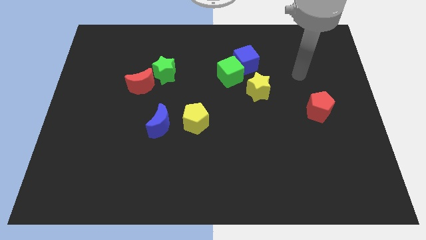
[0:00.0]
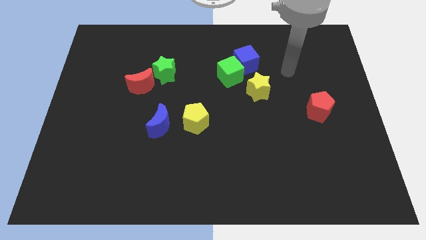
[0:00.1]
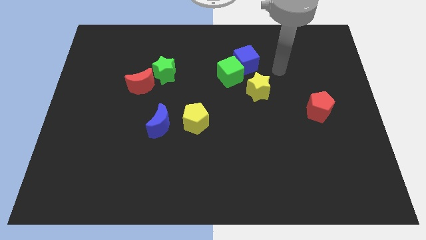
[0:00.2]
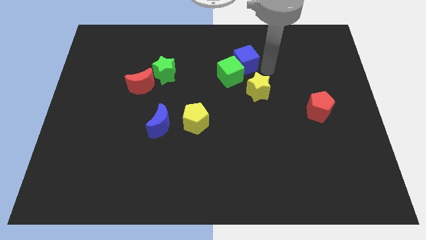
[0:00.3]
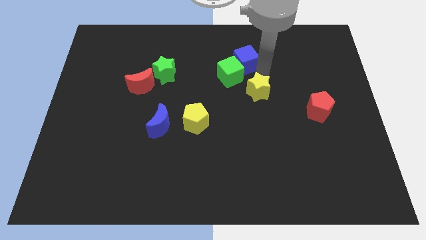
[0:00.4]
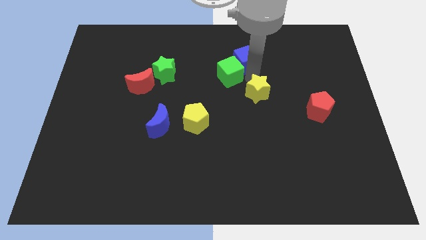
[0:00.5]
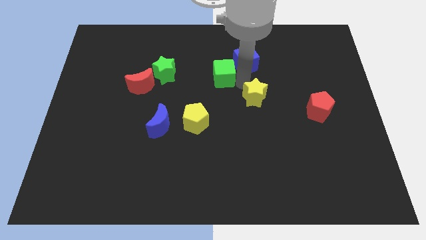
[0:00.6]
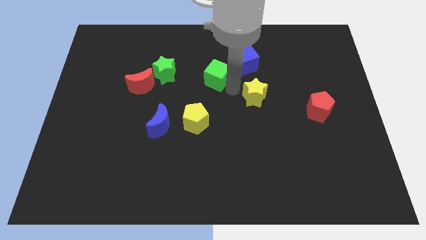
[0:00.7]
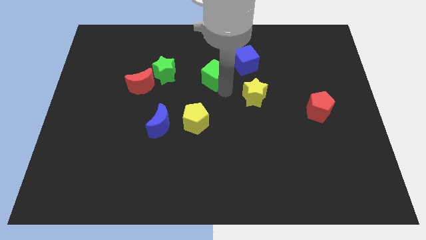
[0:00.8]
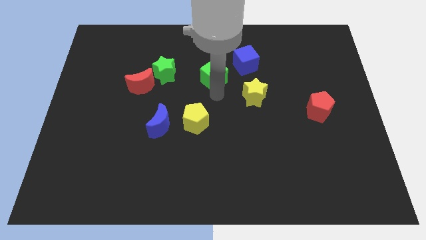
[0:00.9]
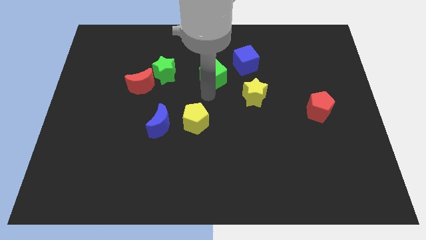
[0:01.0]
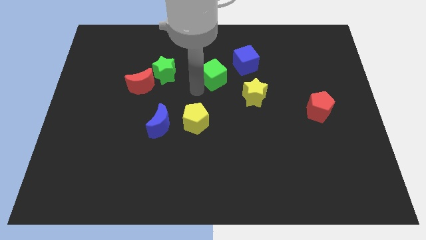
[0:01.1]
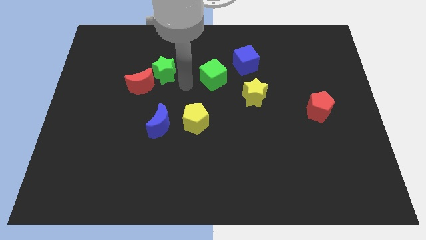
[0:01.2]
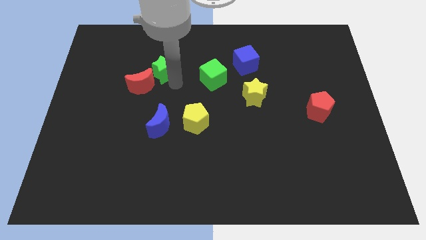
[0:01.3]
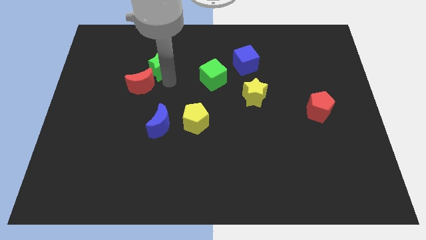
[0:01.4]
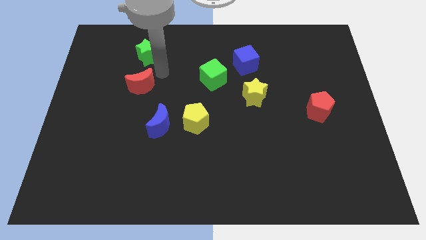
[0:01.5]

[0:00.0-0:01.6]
pull the red moon apart from the green star

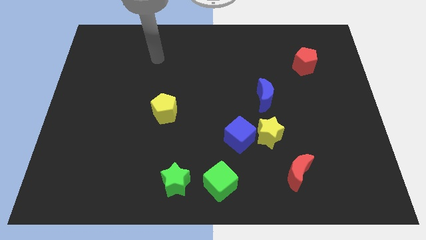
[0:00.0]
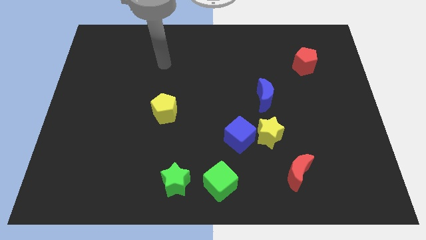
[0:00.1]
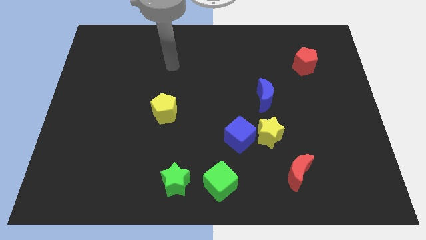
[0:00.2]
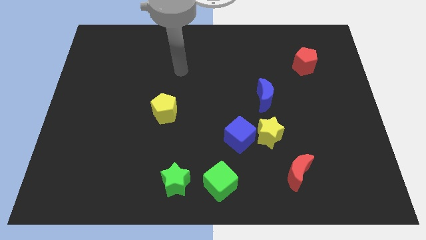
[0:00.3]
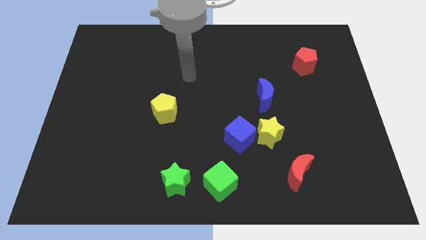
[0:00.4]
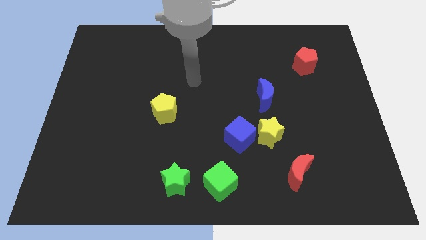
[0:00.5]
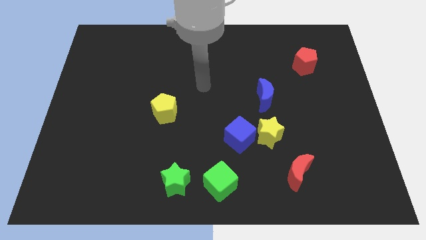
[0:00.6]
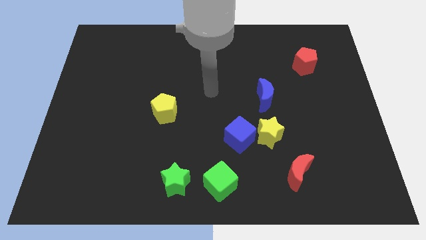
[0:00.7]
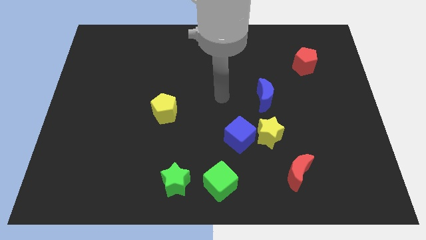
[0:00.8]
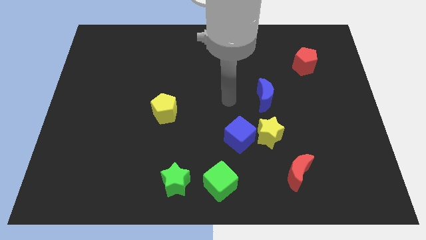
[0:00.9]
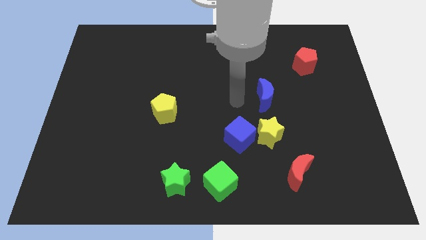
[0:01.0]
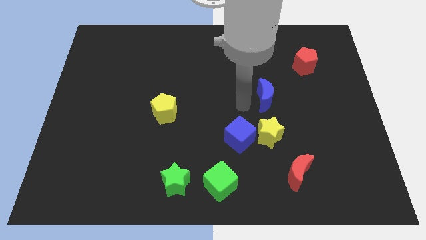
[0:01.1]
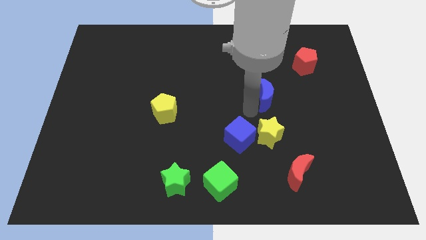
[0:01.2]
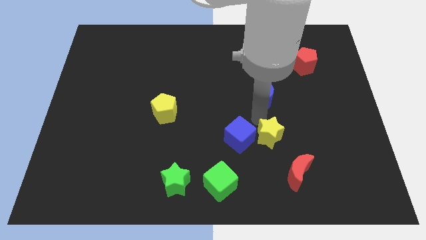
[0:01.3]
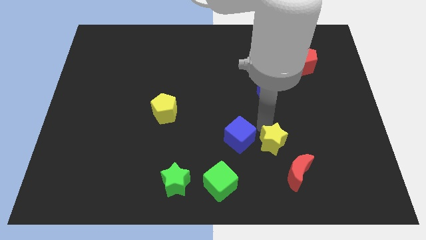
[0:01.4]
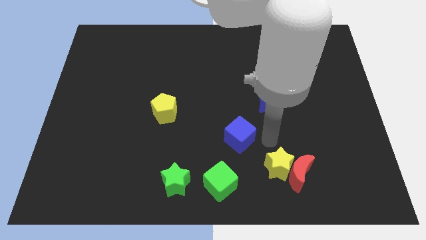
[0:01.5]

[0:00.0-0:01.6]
pull the blue cube apart from the yellow star

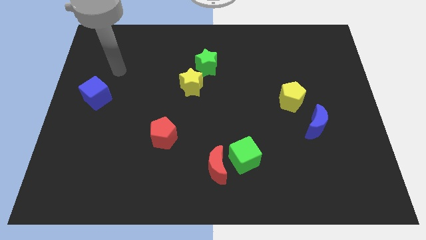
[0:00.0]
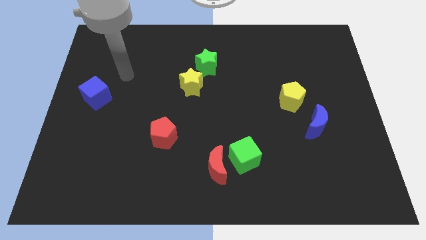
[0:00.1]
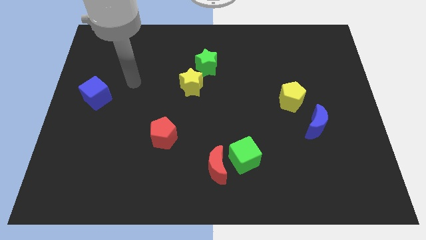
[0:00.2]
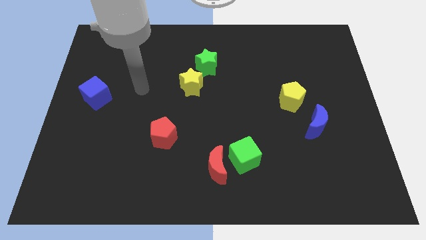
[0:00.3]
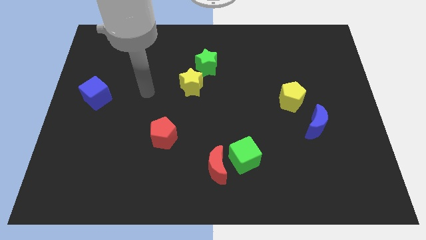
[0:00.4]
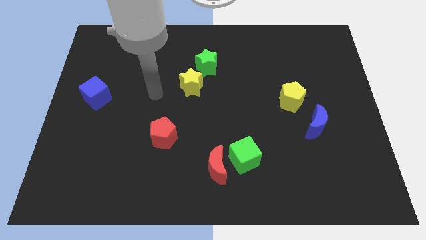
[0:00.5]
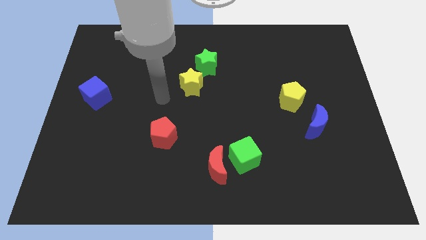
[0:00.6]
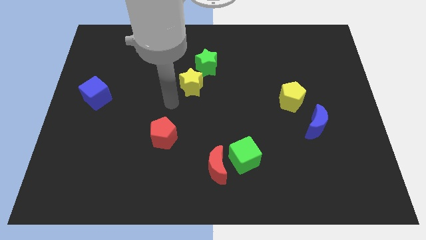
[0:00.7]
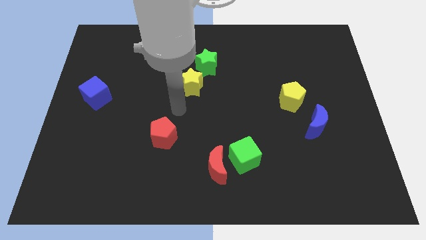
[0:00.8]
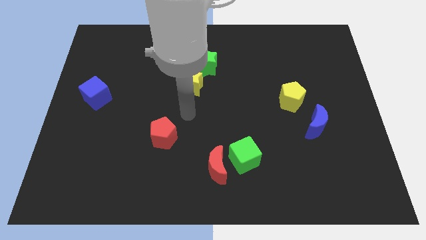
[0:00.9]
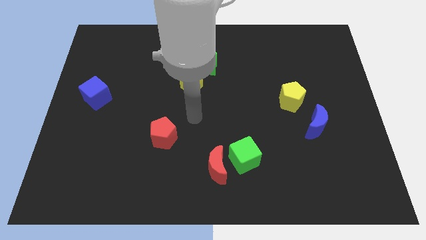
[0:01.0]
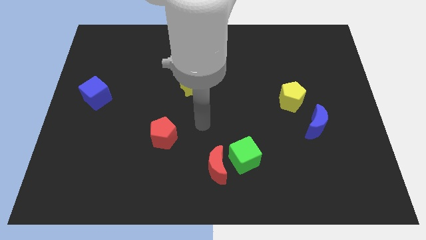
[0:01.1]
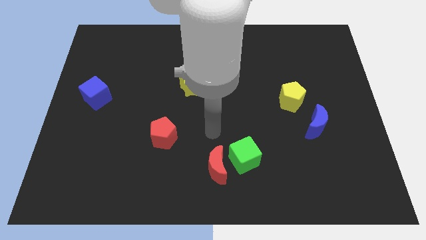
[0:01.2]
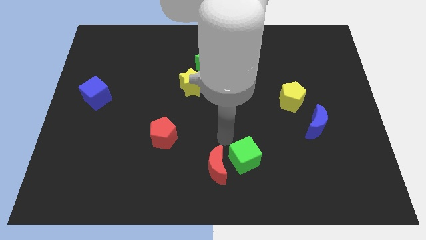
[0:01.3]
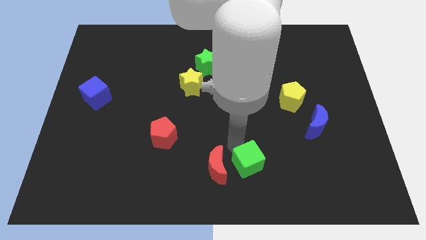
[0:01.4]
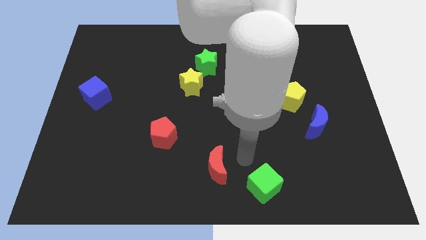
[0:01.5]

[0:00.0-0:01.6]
move the red moon away from the green cube

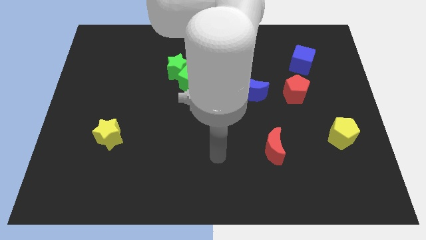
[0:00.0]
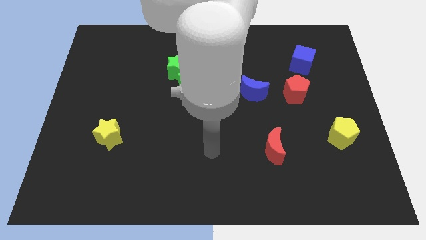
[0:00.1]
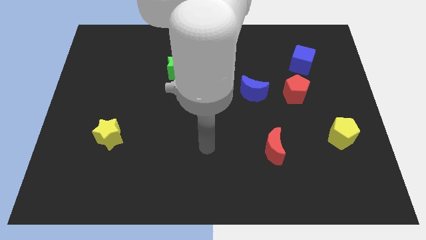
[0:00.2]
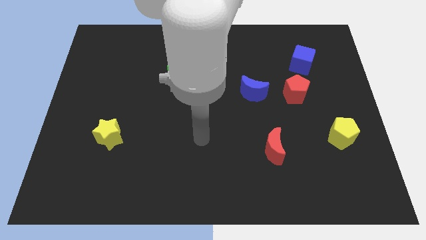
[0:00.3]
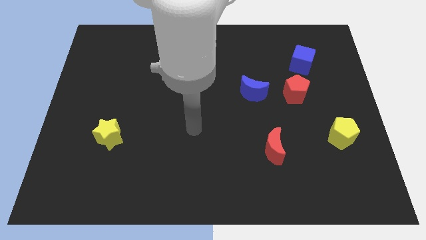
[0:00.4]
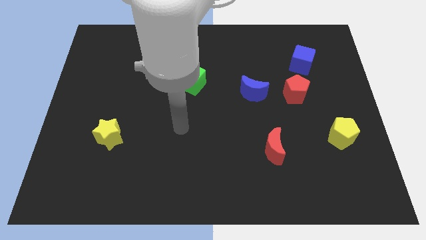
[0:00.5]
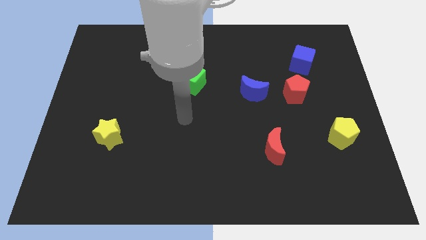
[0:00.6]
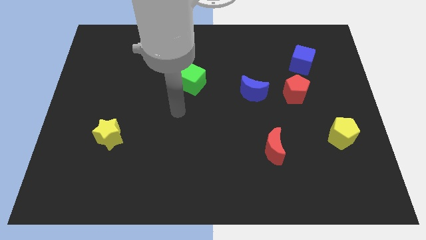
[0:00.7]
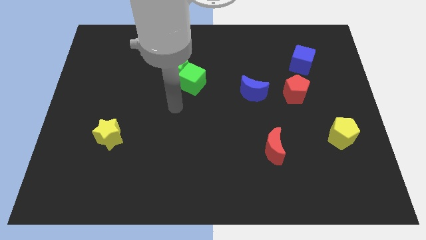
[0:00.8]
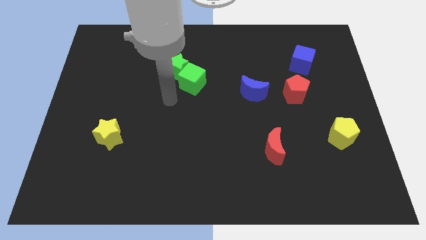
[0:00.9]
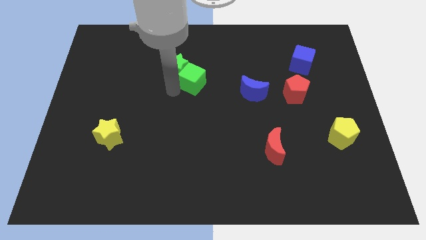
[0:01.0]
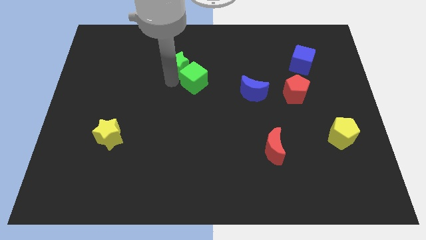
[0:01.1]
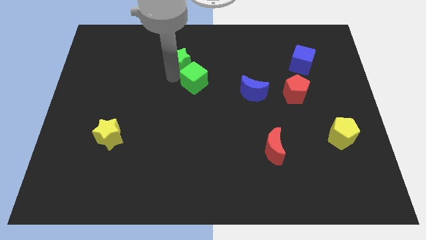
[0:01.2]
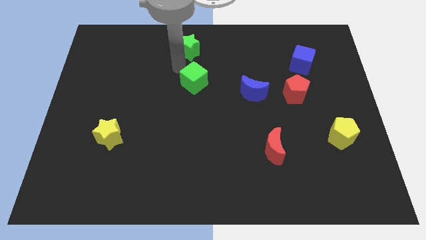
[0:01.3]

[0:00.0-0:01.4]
move the green cube away from the green star

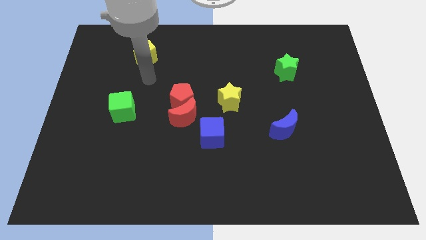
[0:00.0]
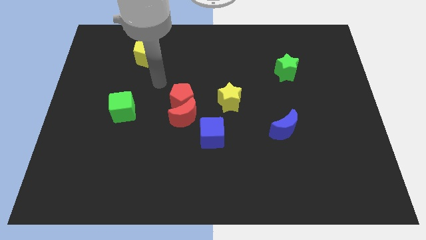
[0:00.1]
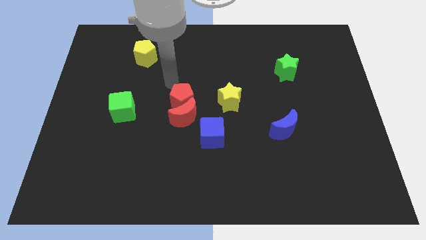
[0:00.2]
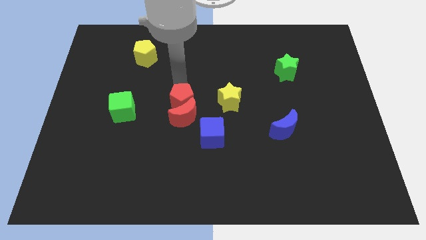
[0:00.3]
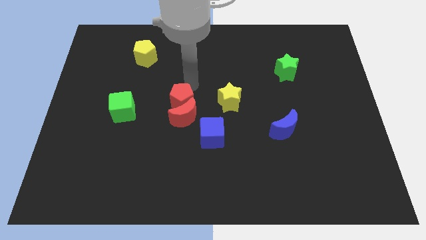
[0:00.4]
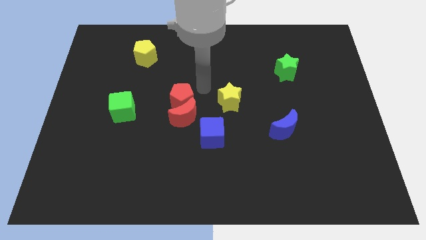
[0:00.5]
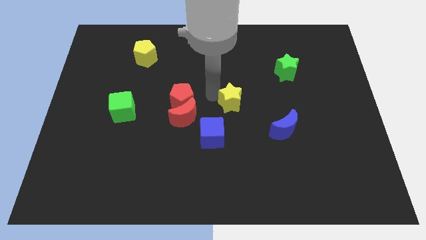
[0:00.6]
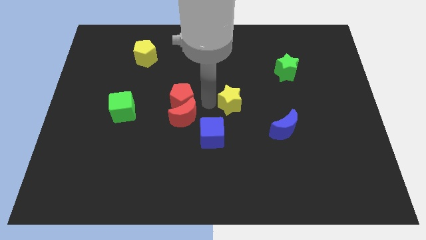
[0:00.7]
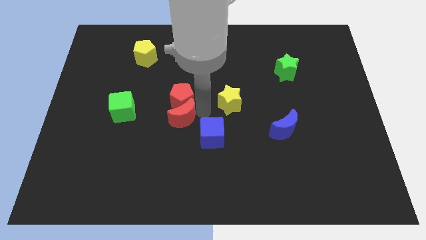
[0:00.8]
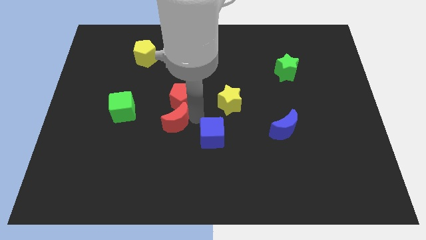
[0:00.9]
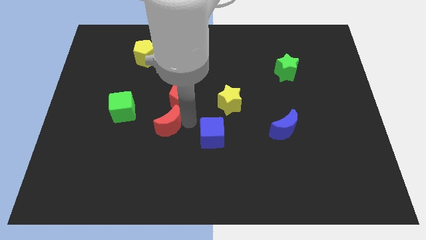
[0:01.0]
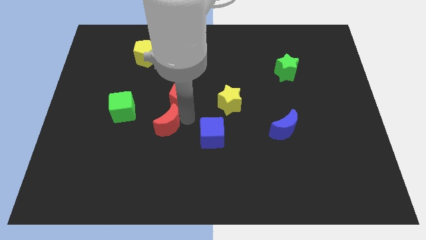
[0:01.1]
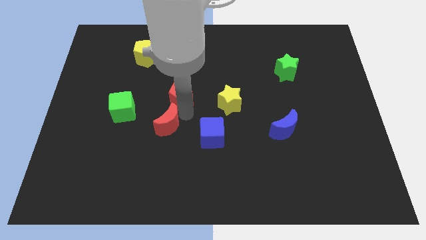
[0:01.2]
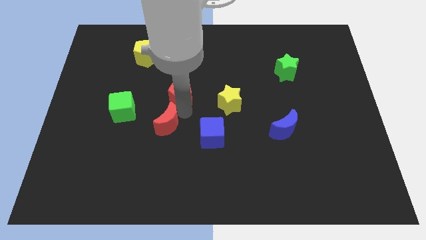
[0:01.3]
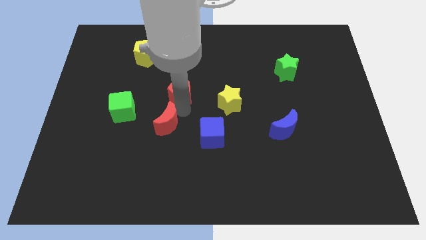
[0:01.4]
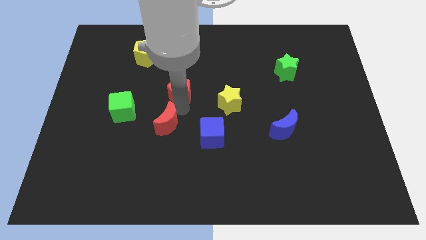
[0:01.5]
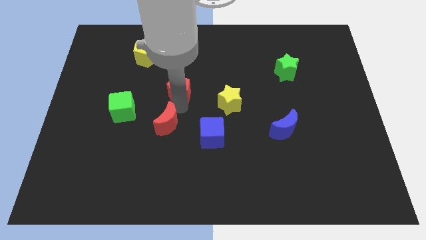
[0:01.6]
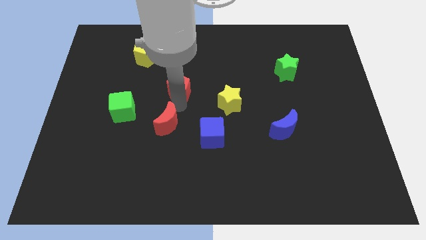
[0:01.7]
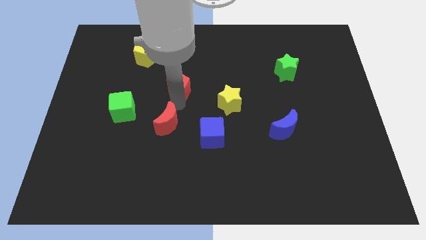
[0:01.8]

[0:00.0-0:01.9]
separate the red pentagon from the red moon

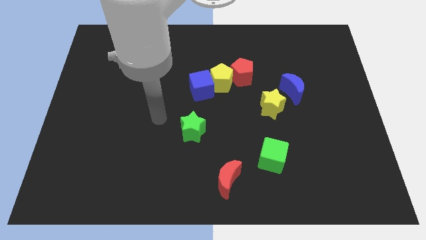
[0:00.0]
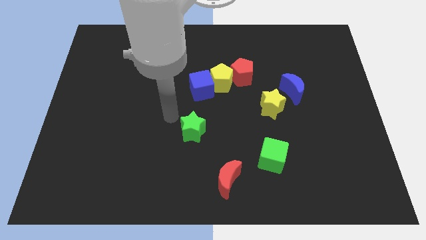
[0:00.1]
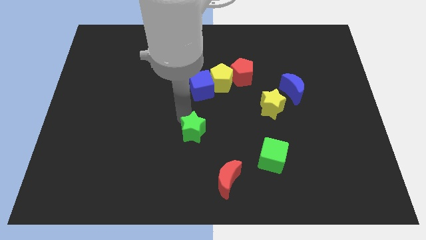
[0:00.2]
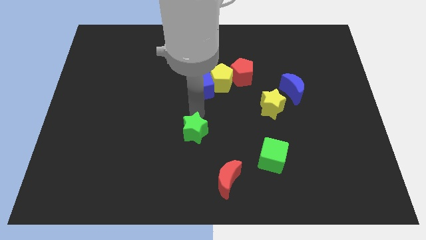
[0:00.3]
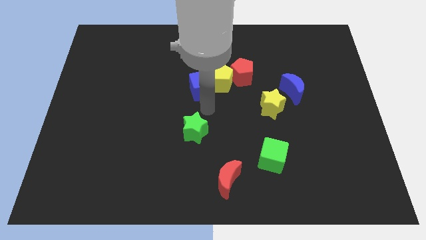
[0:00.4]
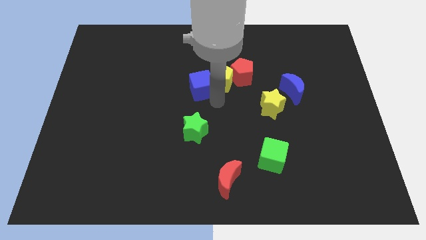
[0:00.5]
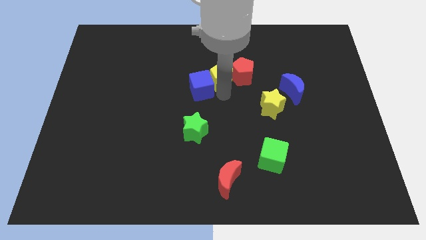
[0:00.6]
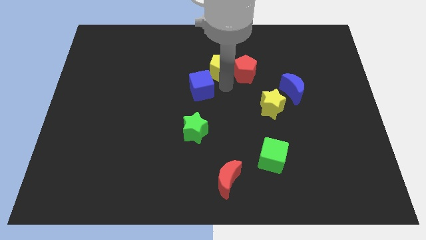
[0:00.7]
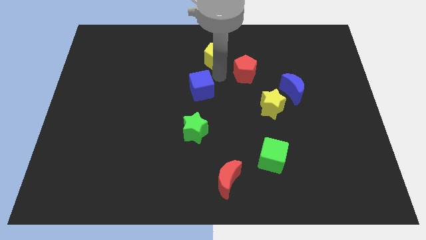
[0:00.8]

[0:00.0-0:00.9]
pull the blue cube apart from the yellow pentagon

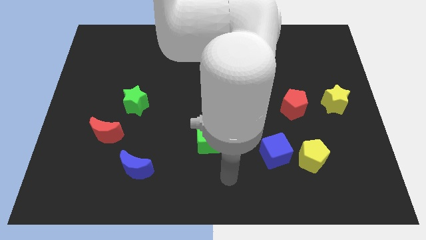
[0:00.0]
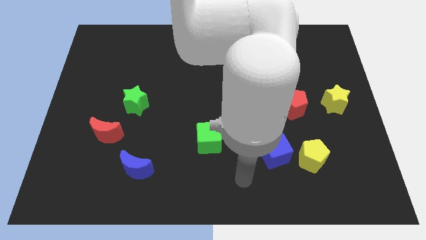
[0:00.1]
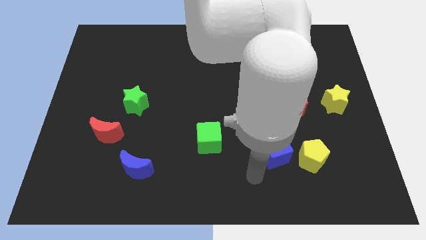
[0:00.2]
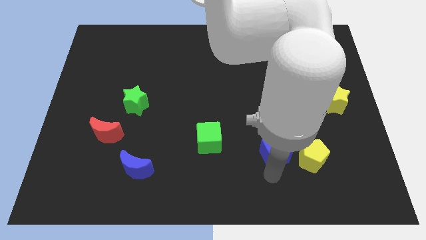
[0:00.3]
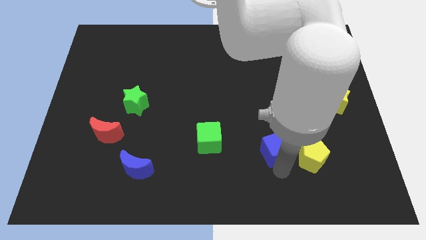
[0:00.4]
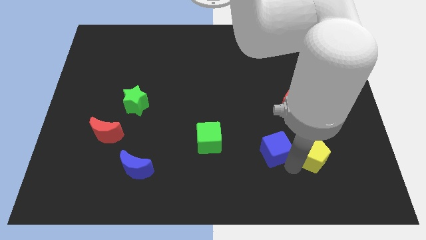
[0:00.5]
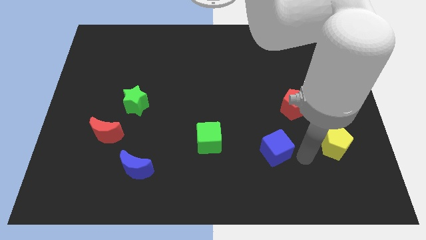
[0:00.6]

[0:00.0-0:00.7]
move the blue cube away from the yellow pentagon
